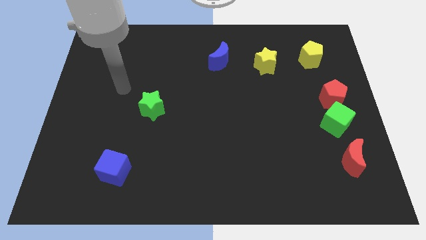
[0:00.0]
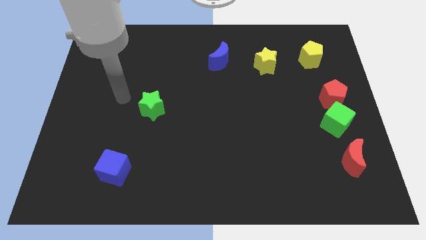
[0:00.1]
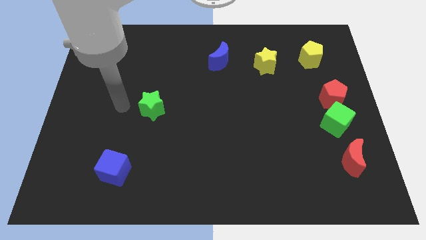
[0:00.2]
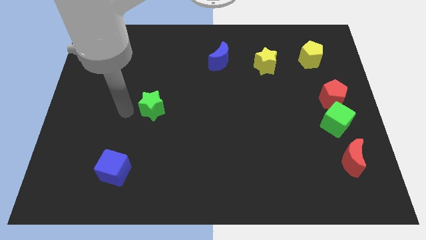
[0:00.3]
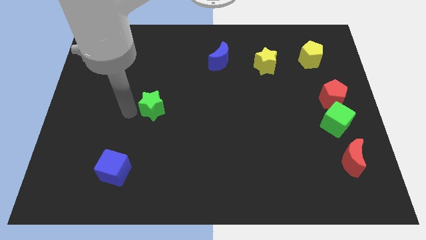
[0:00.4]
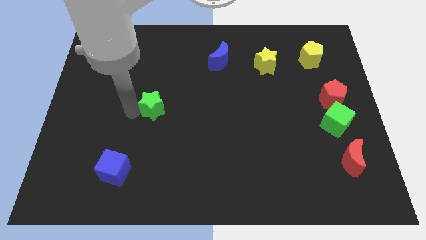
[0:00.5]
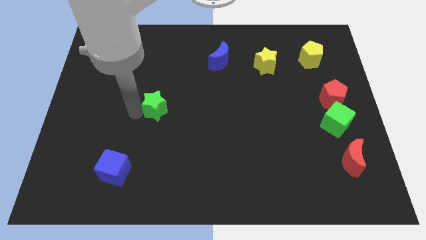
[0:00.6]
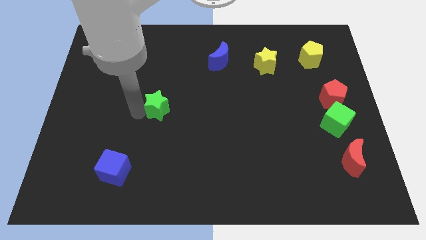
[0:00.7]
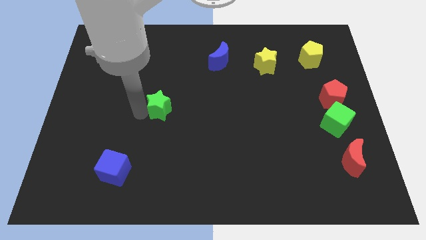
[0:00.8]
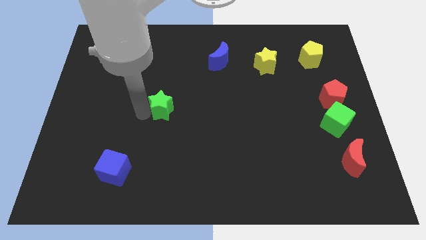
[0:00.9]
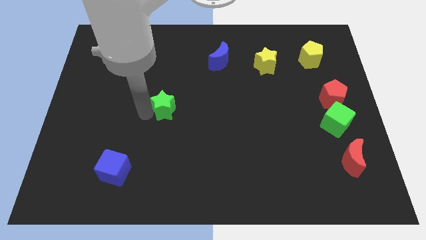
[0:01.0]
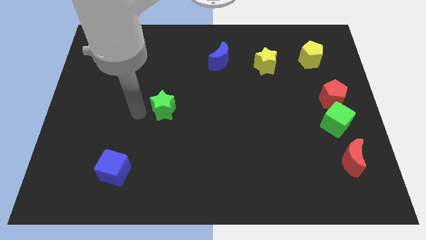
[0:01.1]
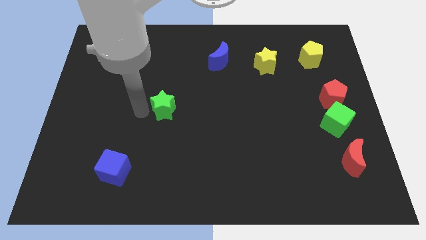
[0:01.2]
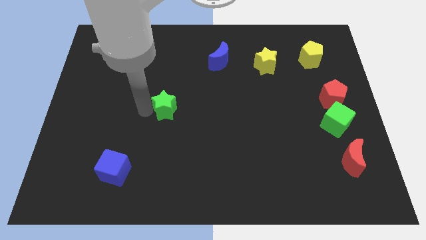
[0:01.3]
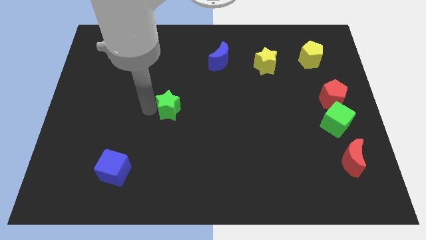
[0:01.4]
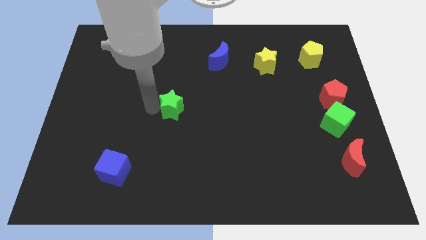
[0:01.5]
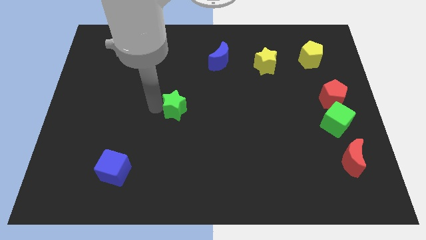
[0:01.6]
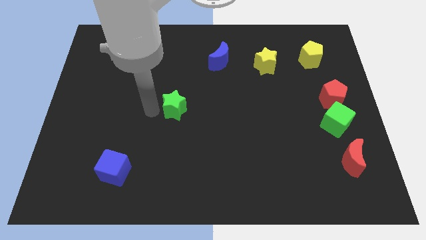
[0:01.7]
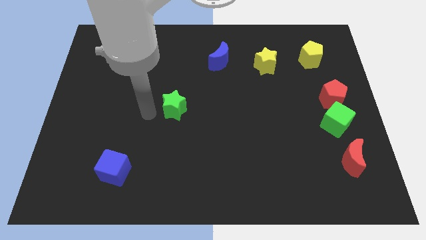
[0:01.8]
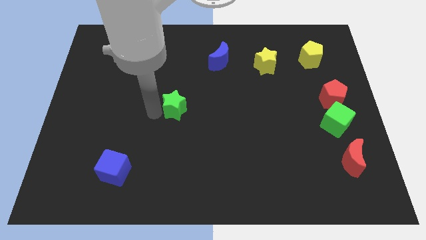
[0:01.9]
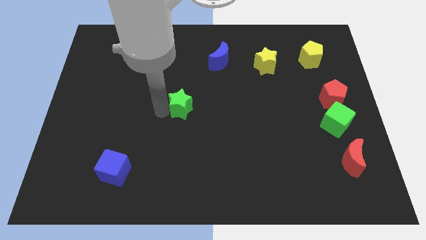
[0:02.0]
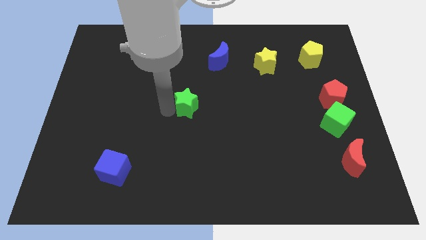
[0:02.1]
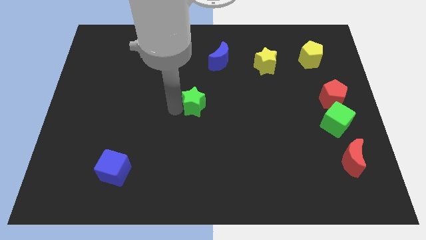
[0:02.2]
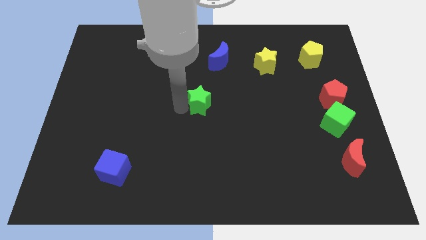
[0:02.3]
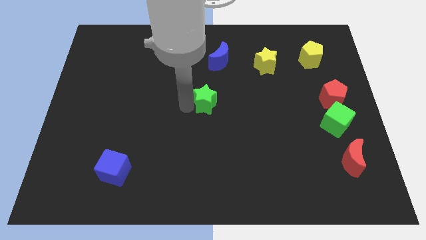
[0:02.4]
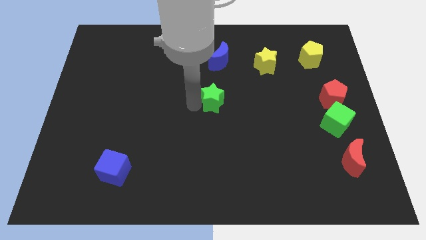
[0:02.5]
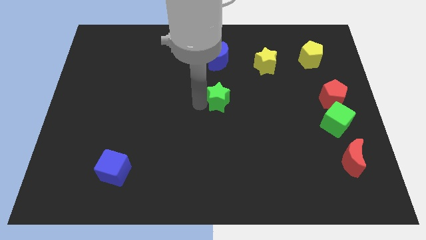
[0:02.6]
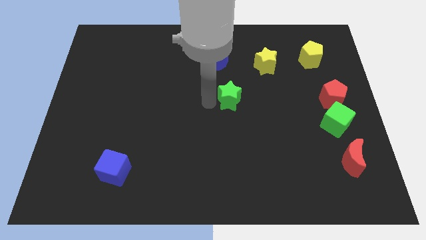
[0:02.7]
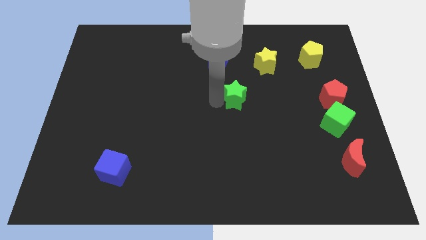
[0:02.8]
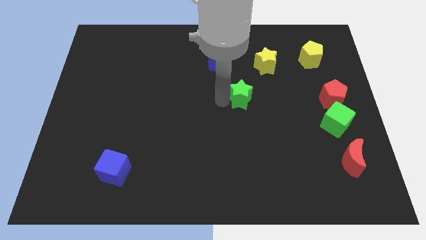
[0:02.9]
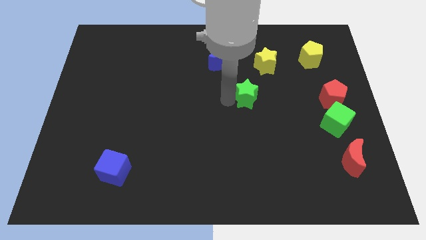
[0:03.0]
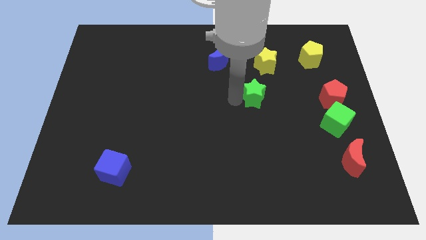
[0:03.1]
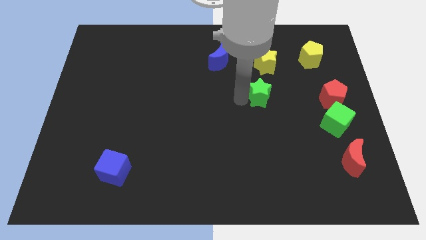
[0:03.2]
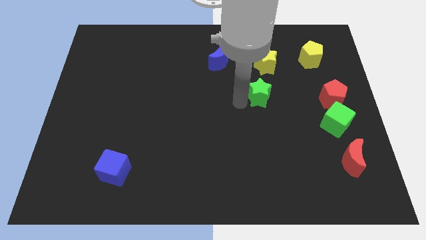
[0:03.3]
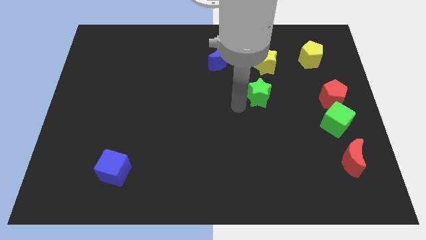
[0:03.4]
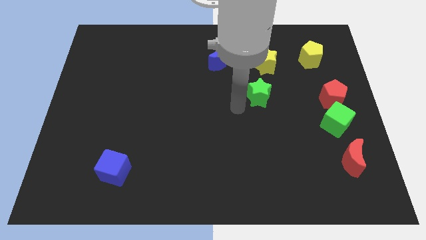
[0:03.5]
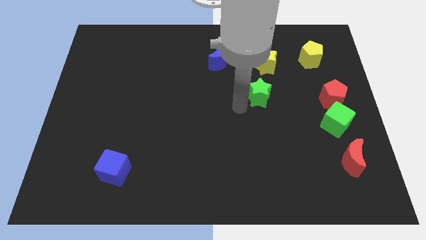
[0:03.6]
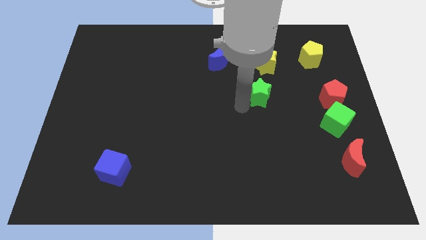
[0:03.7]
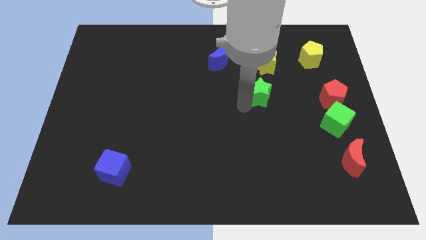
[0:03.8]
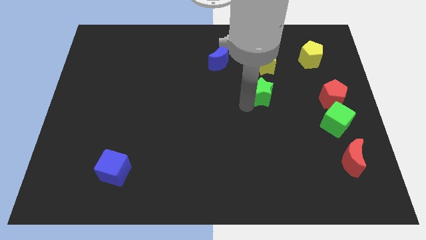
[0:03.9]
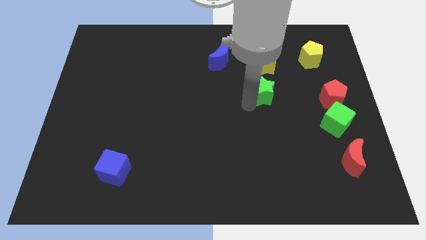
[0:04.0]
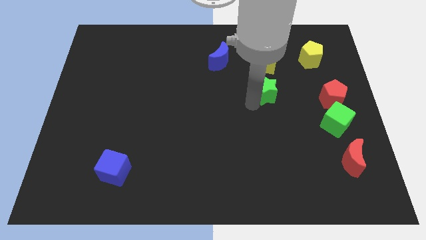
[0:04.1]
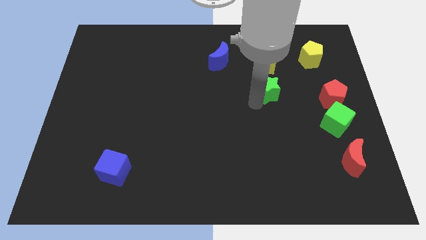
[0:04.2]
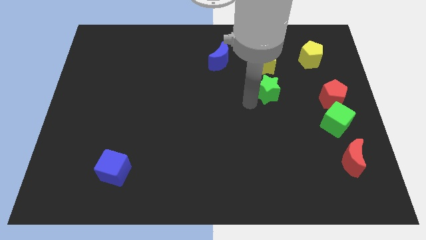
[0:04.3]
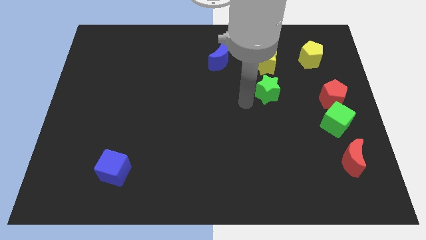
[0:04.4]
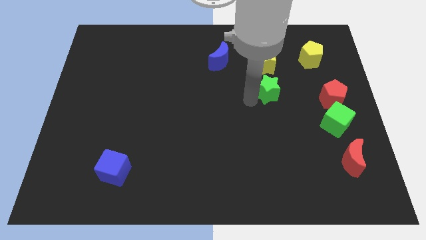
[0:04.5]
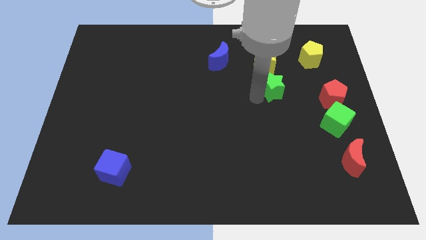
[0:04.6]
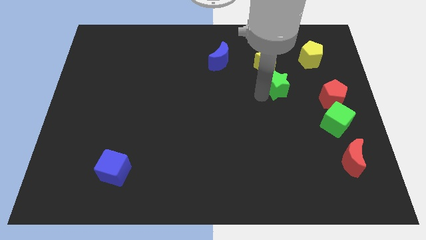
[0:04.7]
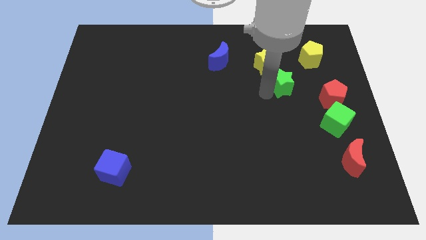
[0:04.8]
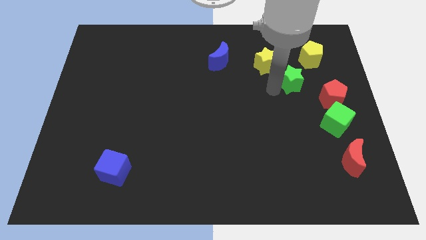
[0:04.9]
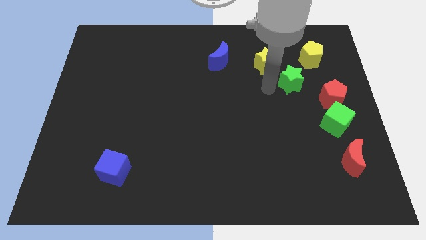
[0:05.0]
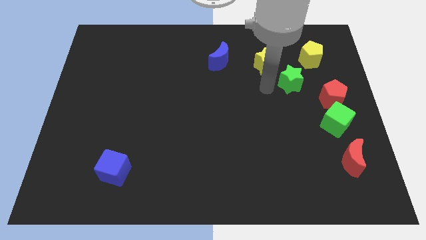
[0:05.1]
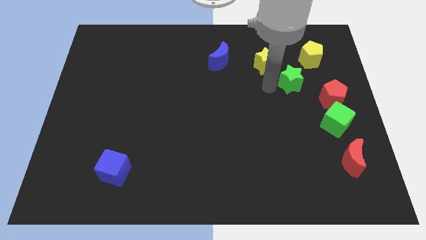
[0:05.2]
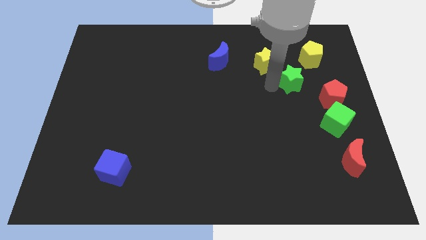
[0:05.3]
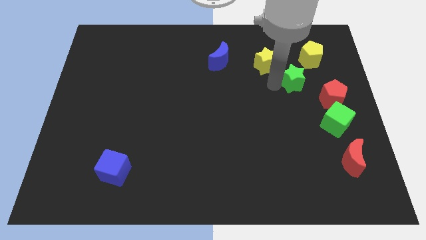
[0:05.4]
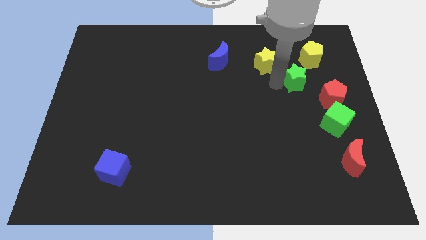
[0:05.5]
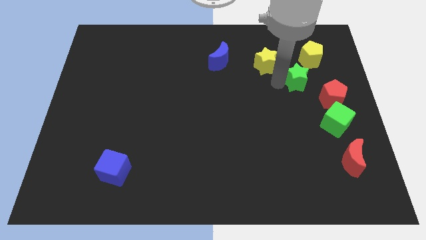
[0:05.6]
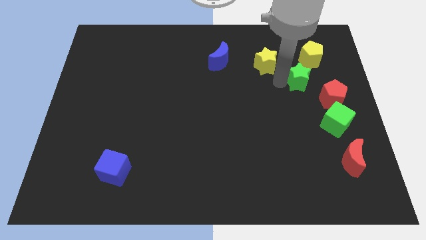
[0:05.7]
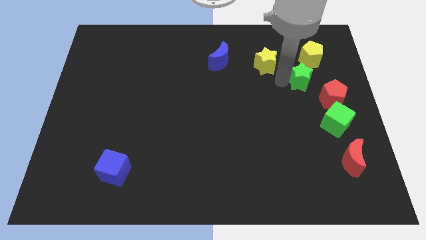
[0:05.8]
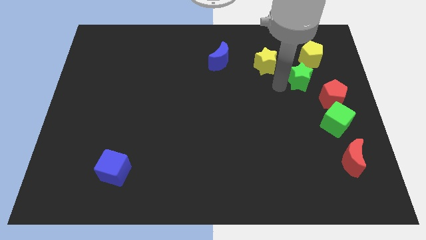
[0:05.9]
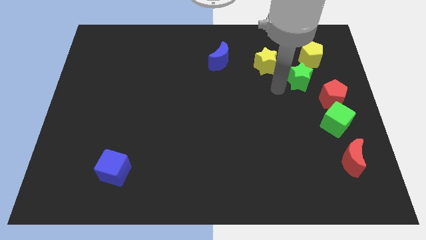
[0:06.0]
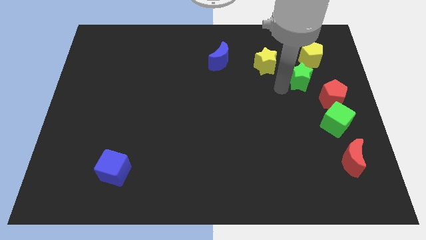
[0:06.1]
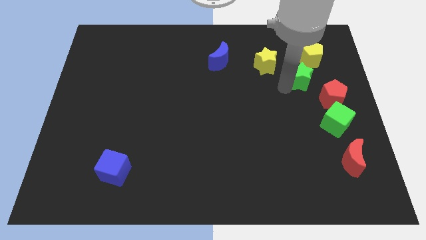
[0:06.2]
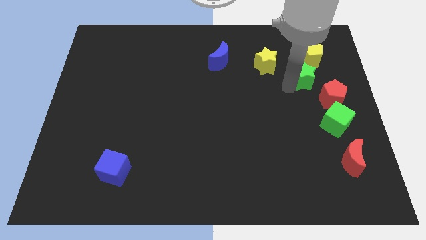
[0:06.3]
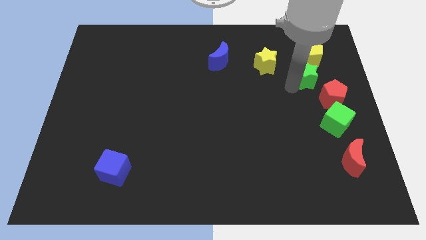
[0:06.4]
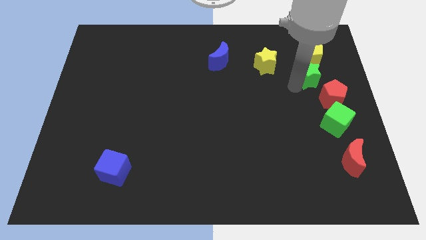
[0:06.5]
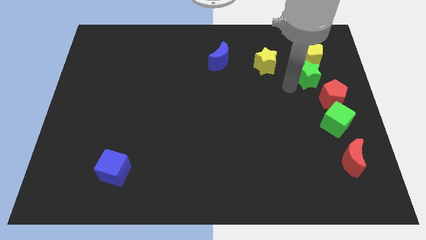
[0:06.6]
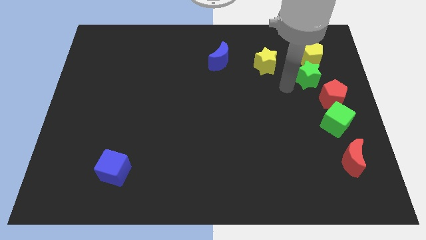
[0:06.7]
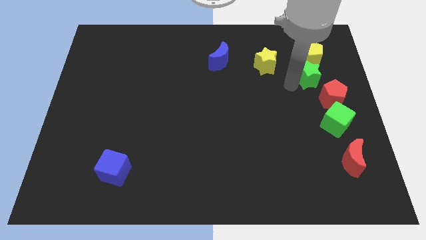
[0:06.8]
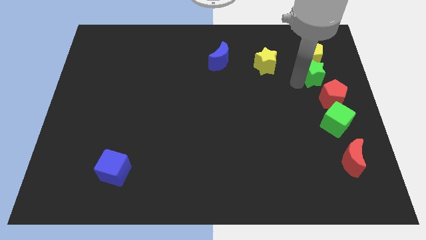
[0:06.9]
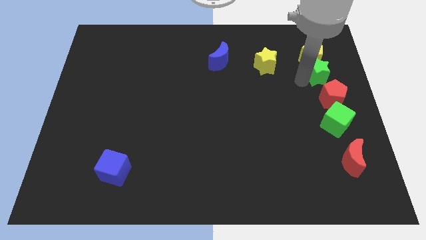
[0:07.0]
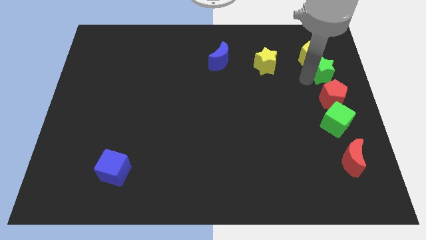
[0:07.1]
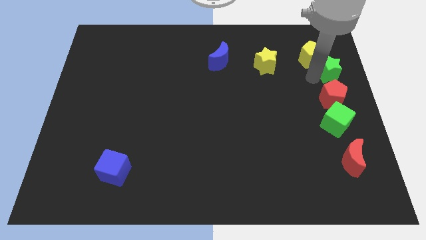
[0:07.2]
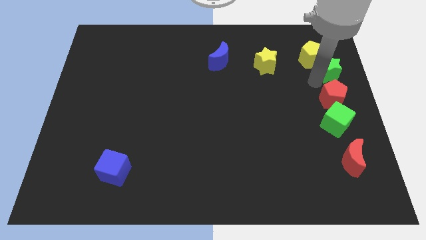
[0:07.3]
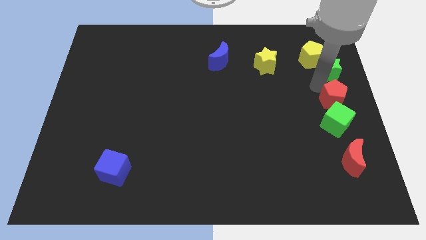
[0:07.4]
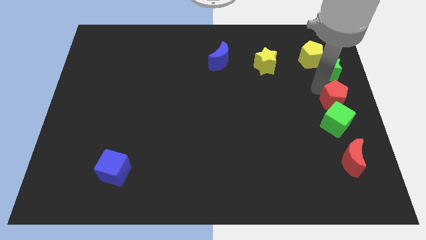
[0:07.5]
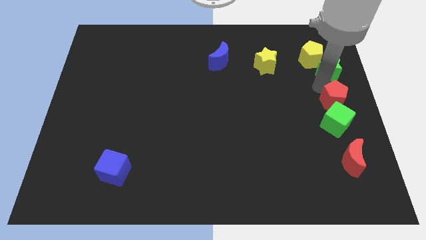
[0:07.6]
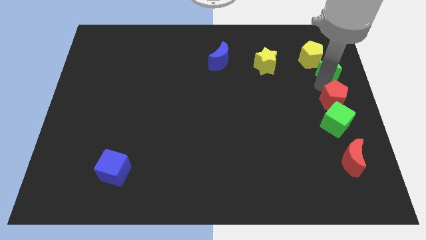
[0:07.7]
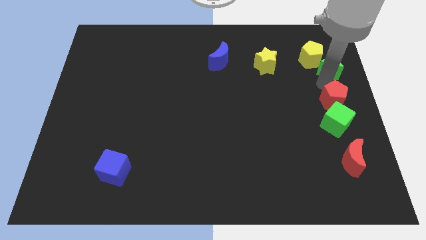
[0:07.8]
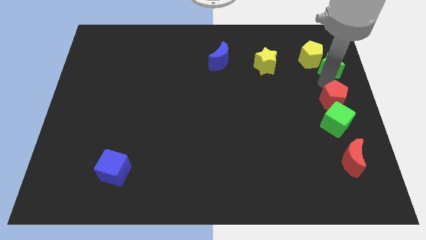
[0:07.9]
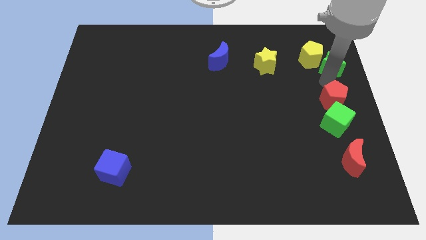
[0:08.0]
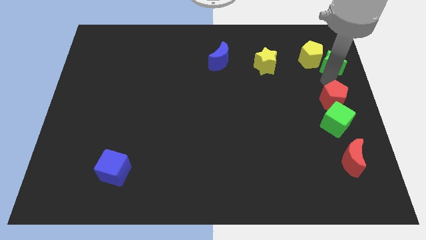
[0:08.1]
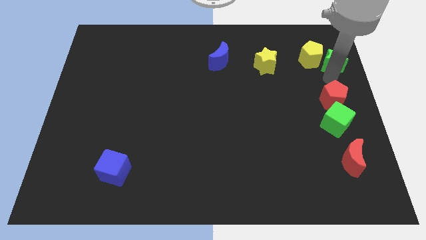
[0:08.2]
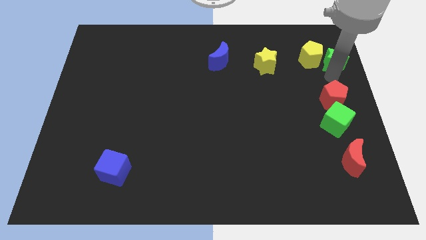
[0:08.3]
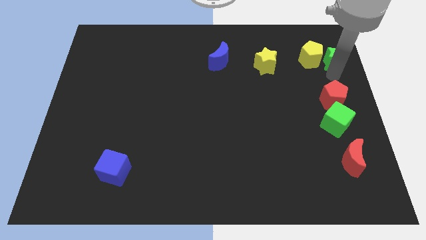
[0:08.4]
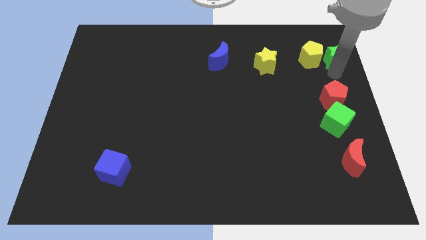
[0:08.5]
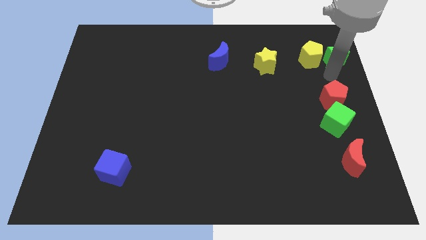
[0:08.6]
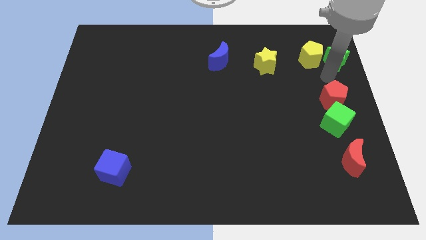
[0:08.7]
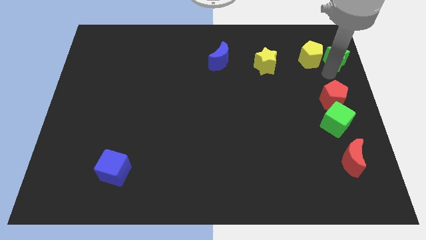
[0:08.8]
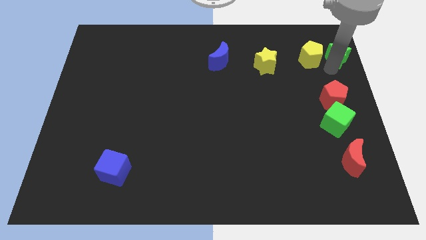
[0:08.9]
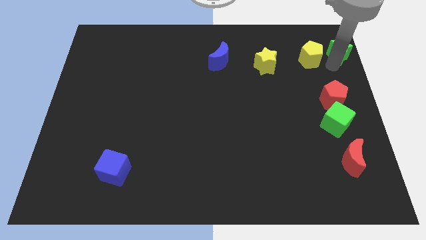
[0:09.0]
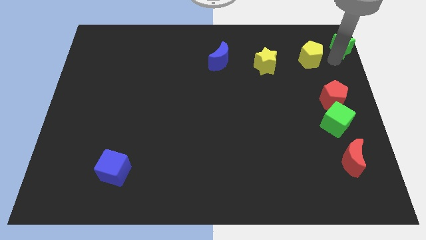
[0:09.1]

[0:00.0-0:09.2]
slide the green star to the top right corner
